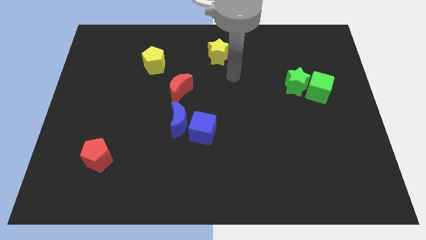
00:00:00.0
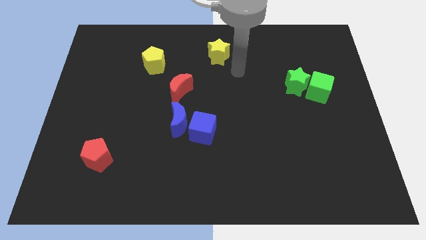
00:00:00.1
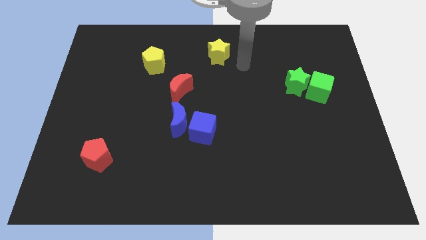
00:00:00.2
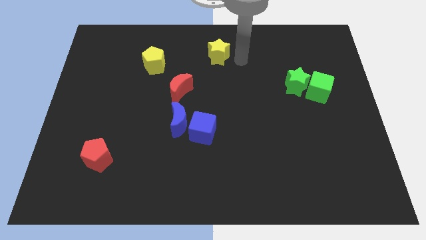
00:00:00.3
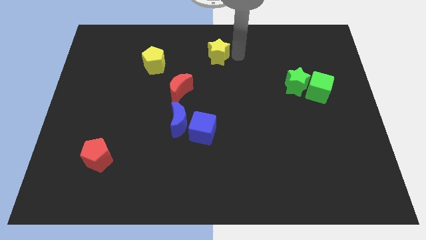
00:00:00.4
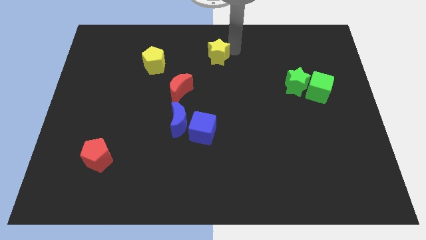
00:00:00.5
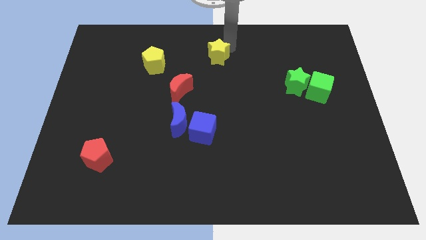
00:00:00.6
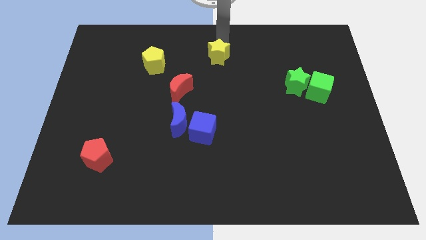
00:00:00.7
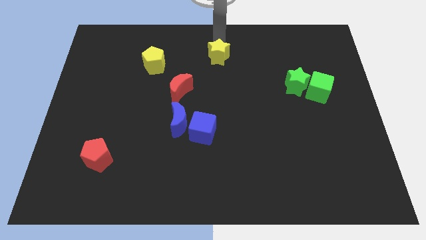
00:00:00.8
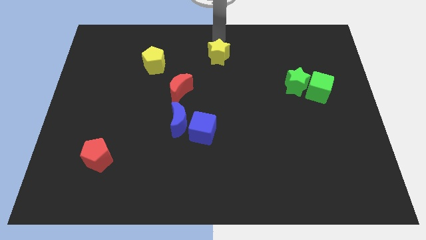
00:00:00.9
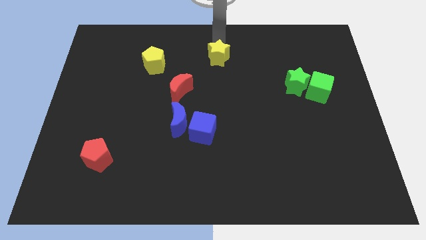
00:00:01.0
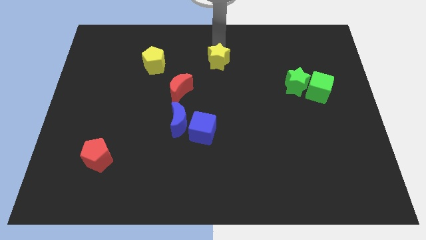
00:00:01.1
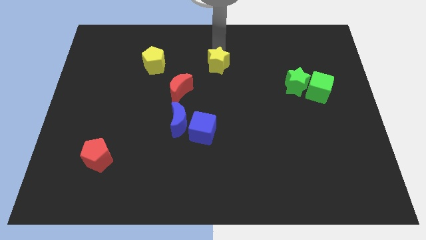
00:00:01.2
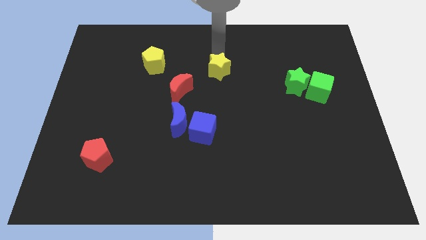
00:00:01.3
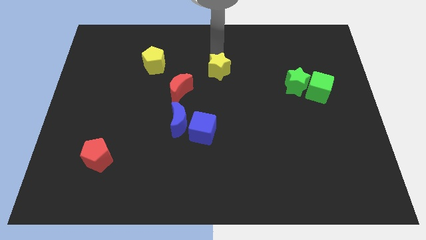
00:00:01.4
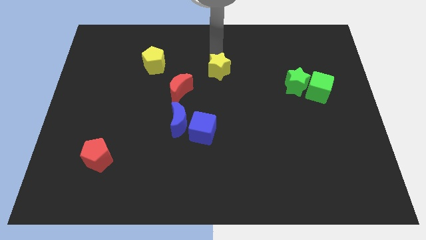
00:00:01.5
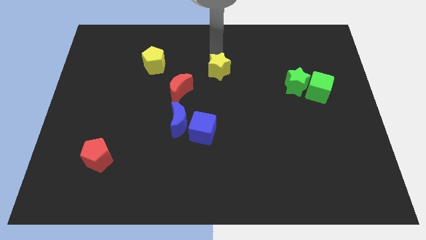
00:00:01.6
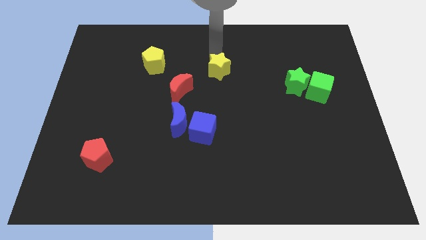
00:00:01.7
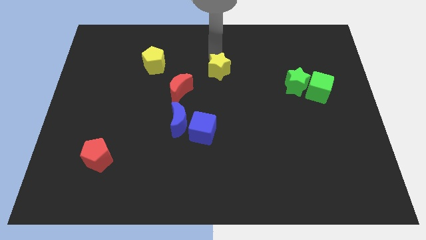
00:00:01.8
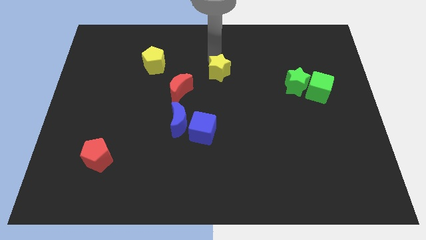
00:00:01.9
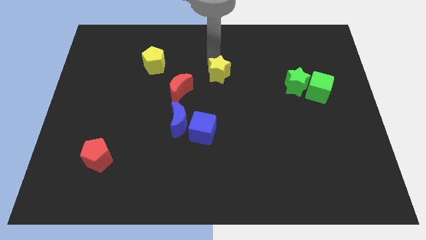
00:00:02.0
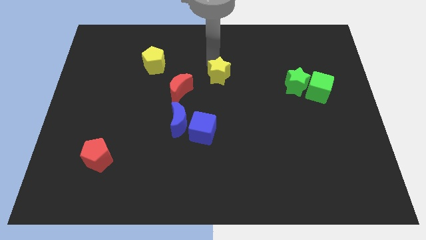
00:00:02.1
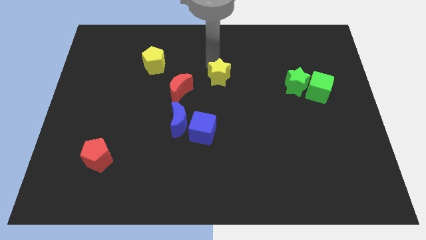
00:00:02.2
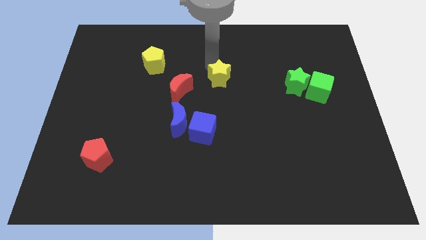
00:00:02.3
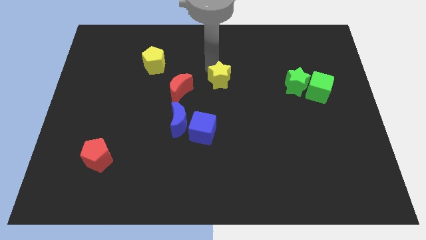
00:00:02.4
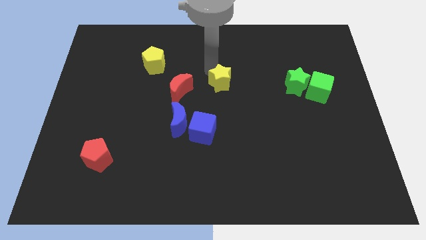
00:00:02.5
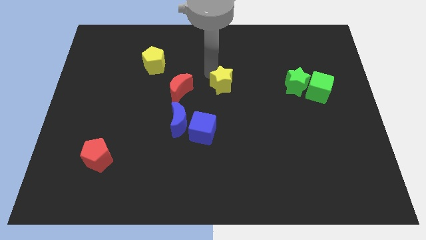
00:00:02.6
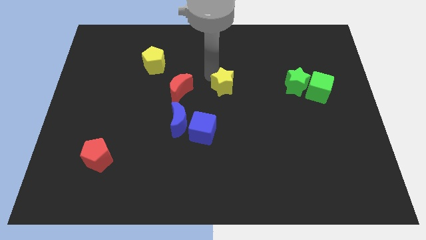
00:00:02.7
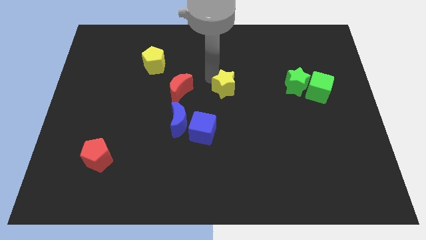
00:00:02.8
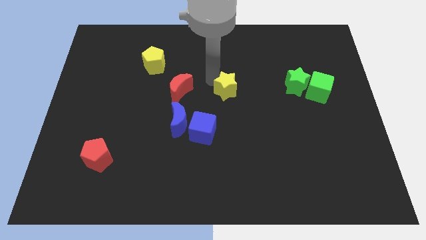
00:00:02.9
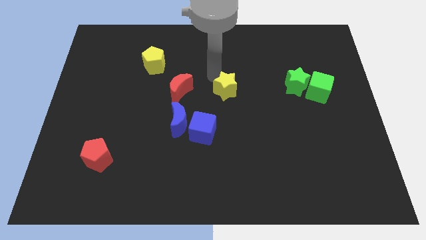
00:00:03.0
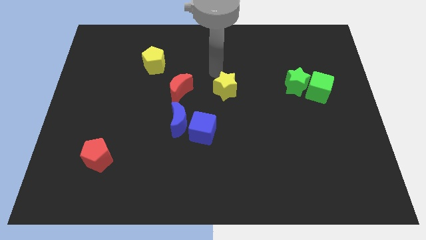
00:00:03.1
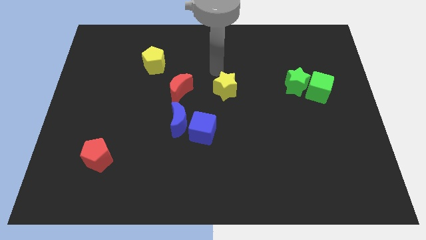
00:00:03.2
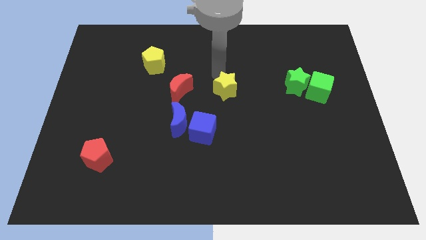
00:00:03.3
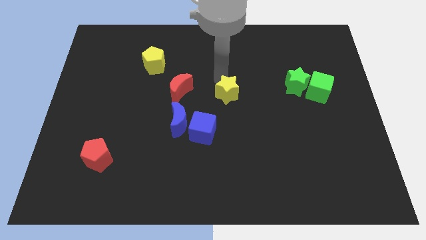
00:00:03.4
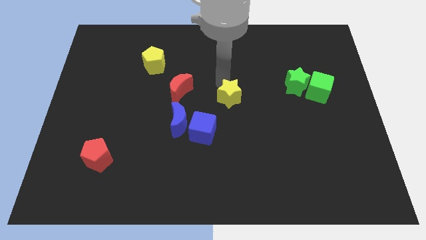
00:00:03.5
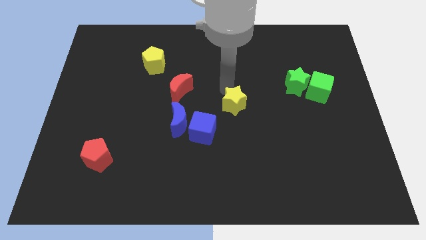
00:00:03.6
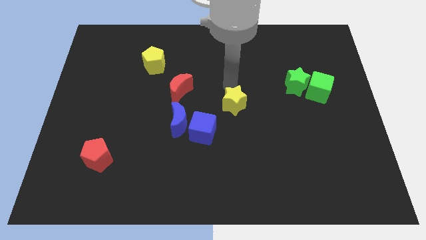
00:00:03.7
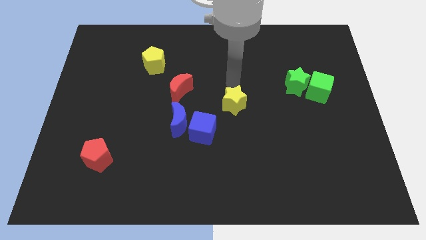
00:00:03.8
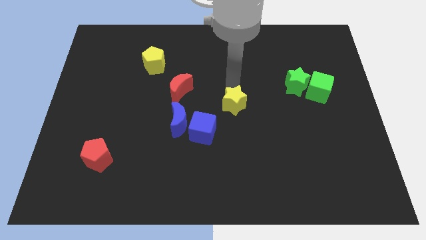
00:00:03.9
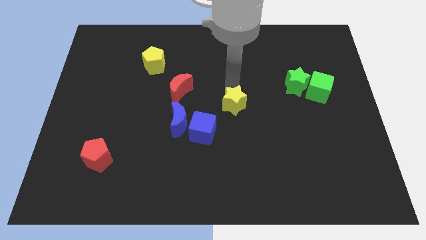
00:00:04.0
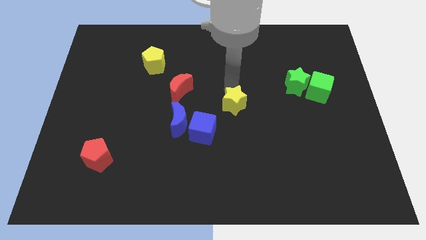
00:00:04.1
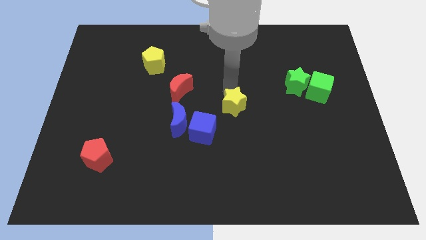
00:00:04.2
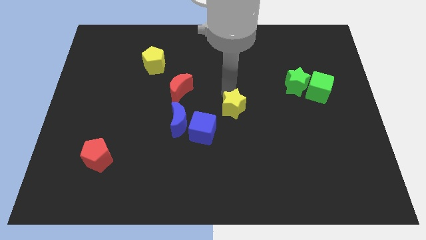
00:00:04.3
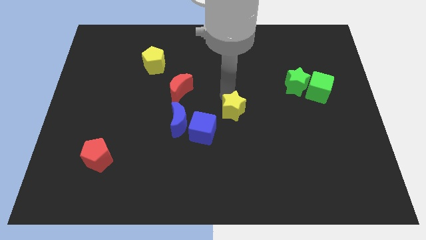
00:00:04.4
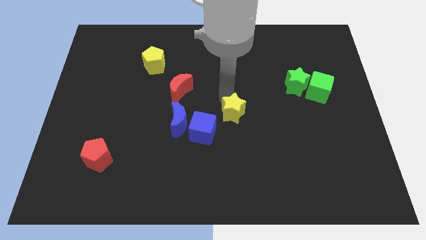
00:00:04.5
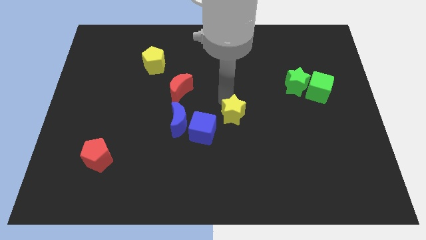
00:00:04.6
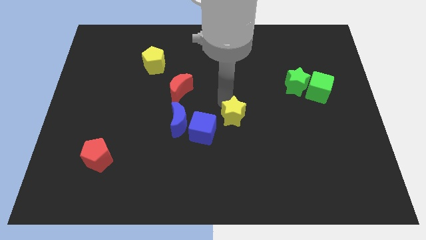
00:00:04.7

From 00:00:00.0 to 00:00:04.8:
slide the yellow star downwards

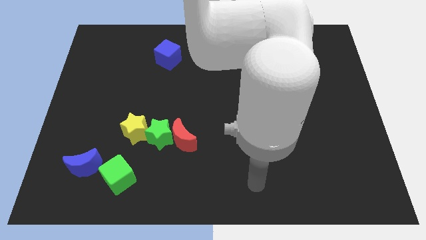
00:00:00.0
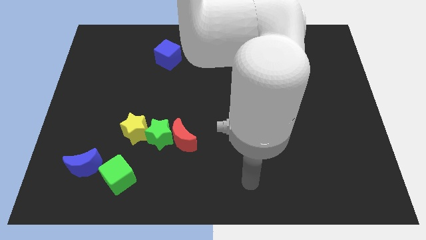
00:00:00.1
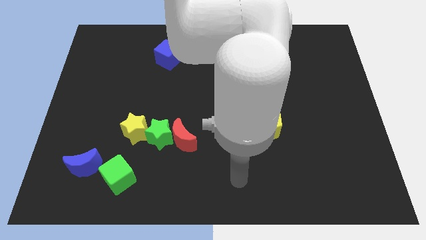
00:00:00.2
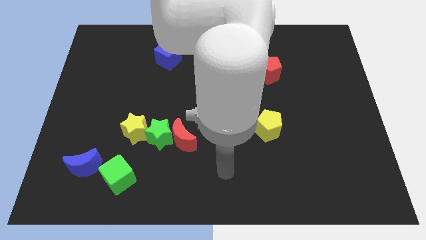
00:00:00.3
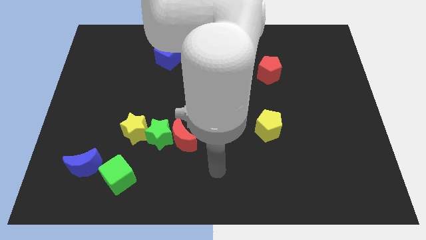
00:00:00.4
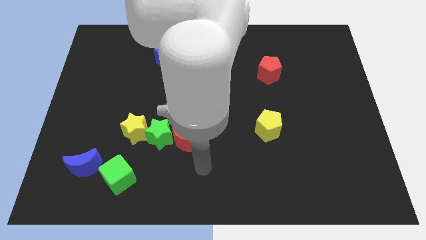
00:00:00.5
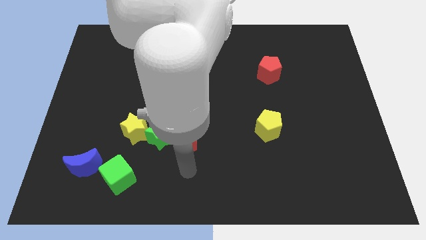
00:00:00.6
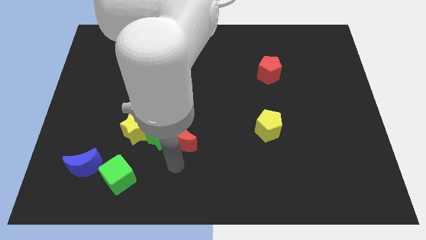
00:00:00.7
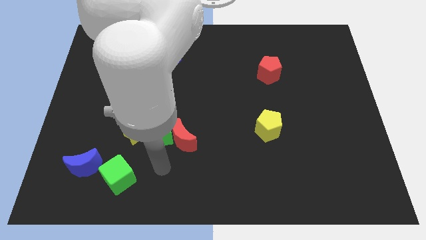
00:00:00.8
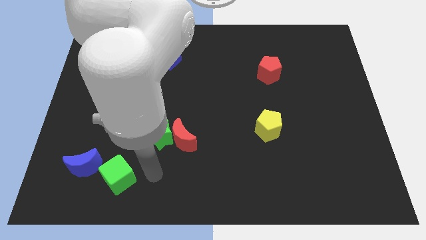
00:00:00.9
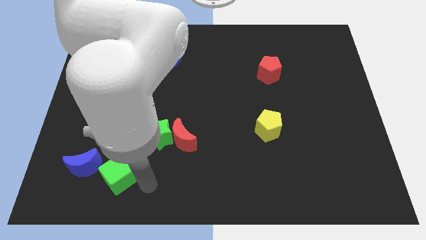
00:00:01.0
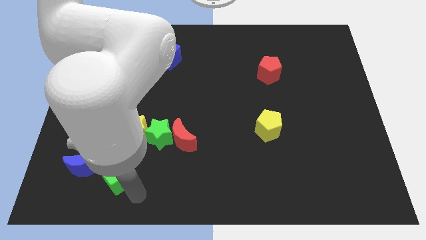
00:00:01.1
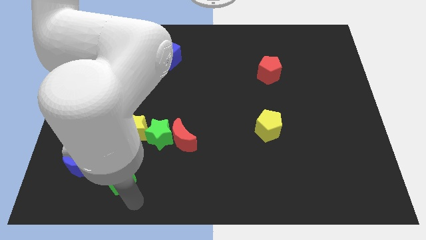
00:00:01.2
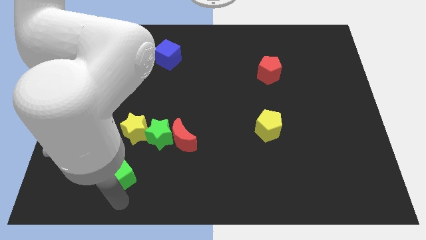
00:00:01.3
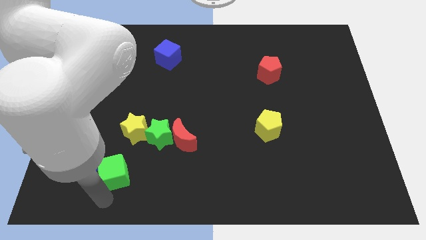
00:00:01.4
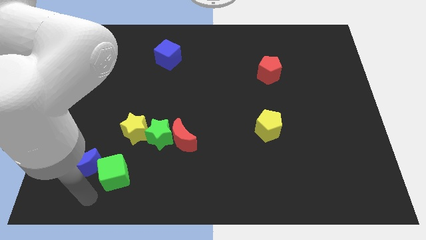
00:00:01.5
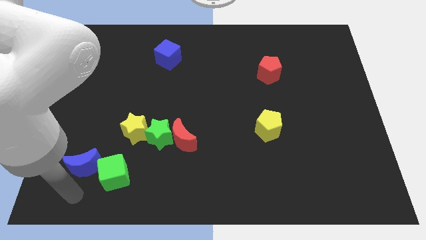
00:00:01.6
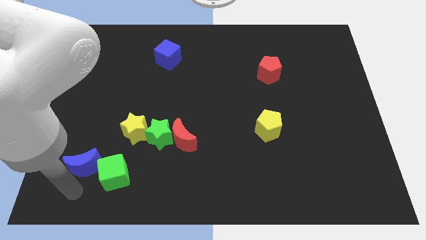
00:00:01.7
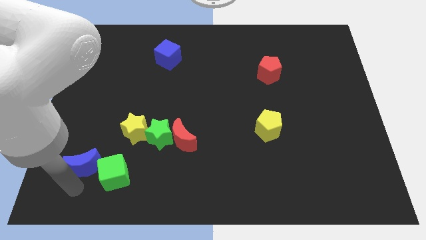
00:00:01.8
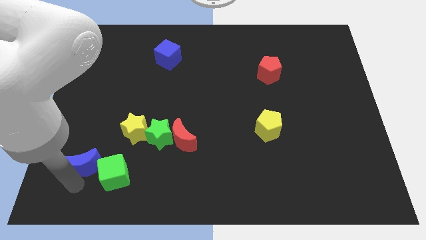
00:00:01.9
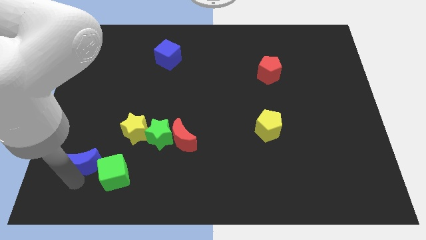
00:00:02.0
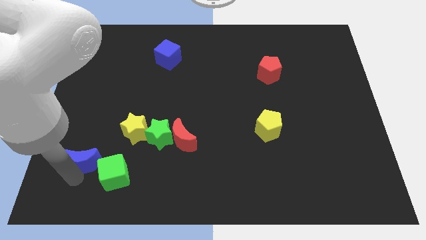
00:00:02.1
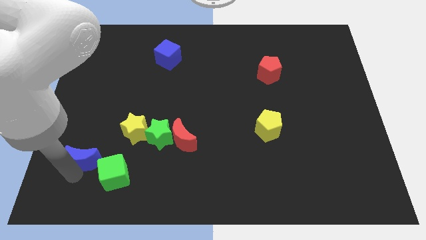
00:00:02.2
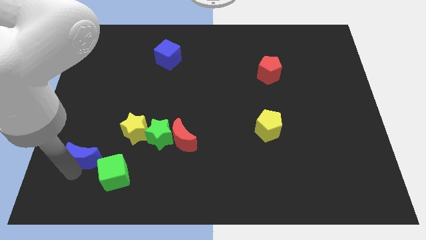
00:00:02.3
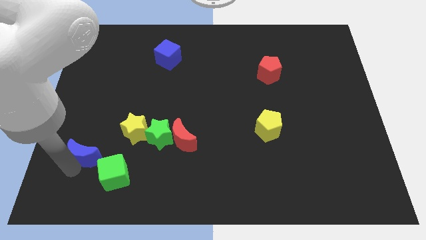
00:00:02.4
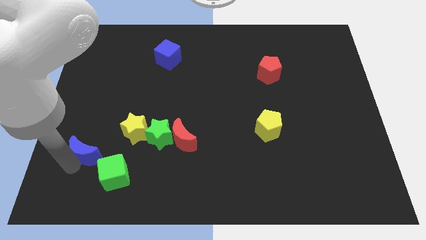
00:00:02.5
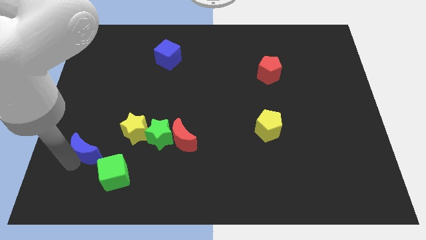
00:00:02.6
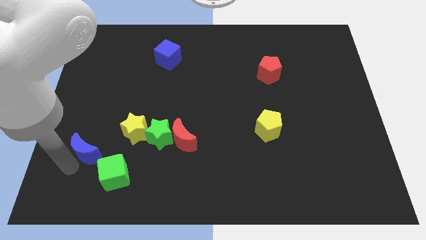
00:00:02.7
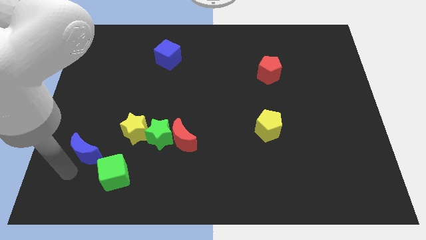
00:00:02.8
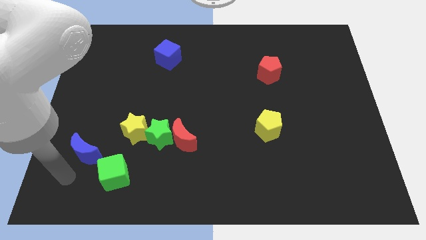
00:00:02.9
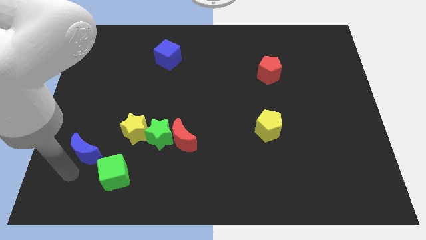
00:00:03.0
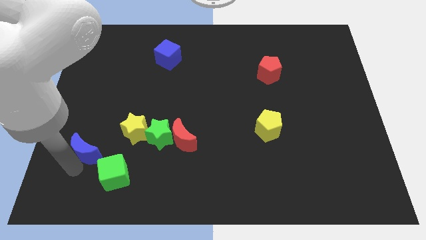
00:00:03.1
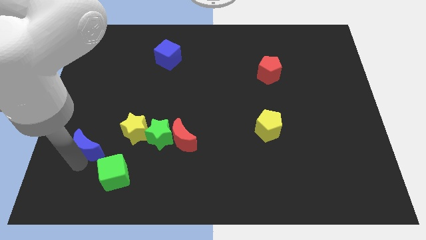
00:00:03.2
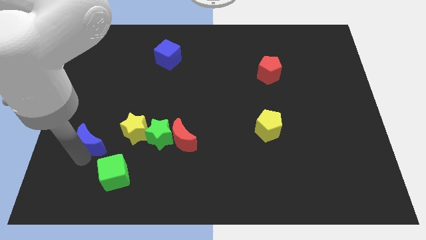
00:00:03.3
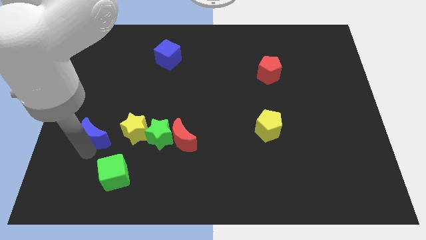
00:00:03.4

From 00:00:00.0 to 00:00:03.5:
slightly push the blue moon upwards
